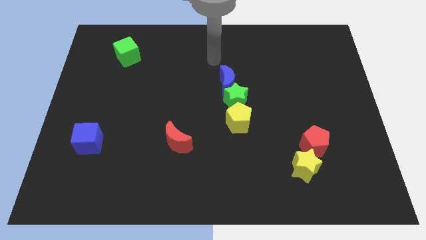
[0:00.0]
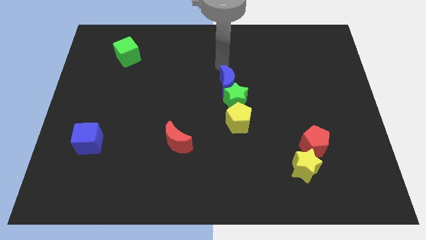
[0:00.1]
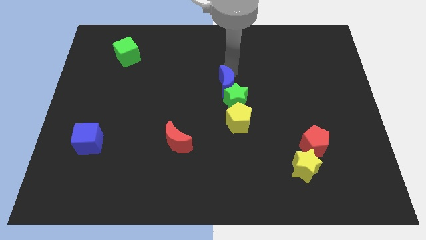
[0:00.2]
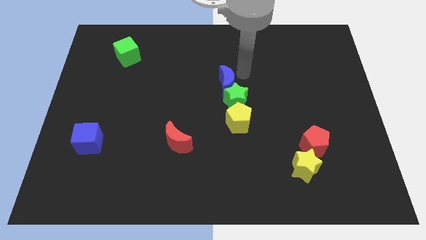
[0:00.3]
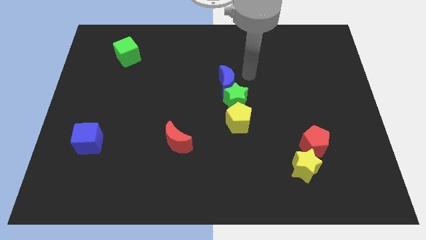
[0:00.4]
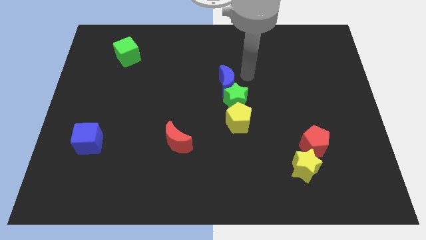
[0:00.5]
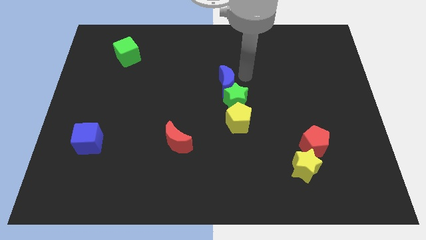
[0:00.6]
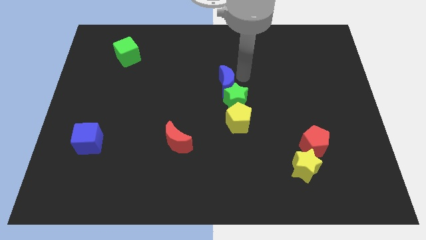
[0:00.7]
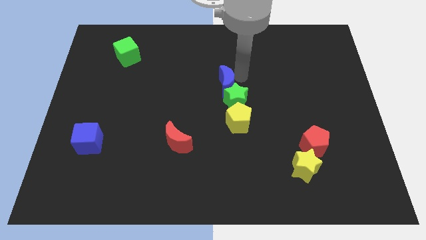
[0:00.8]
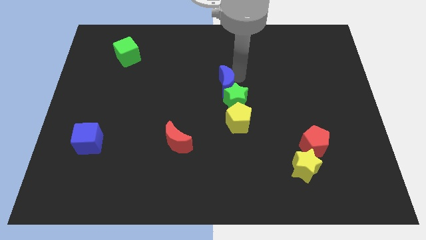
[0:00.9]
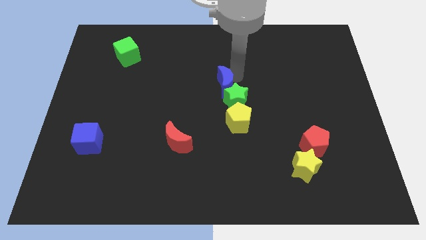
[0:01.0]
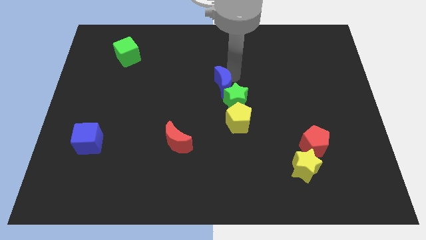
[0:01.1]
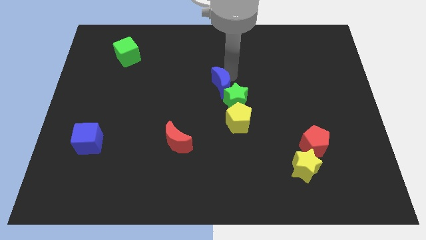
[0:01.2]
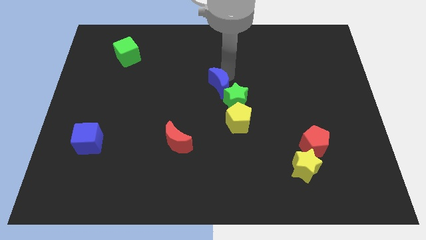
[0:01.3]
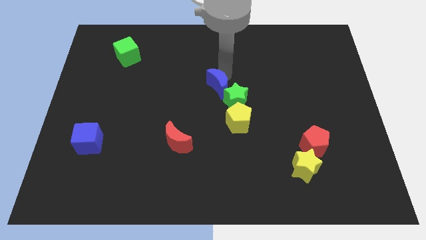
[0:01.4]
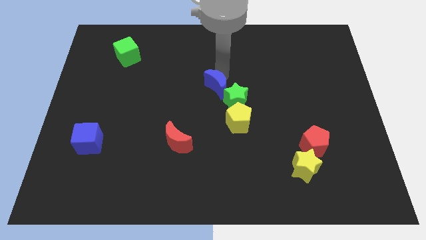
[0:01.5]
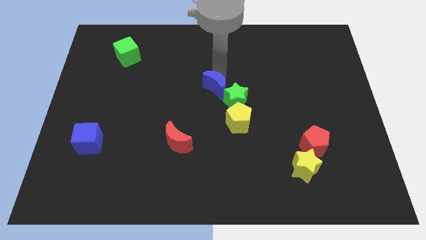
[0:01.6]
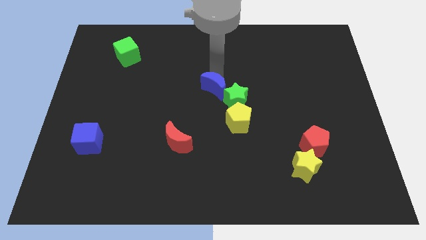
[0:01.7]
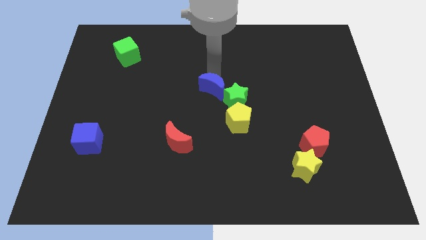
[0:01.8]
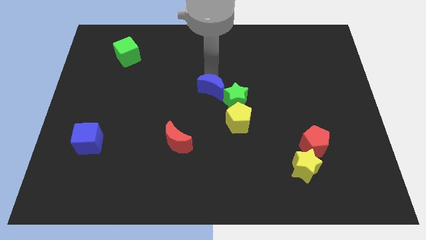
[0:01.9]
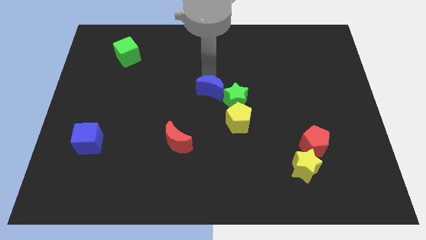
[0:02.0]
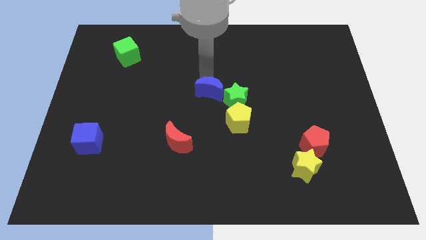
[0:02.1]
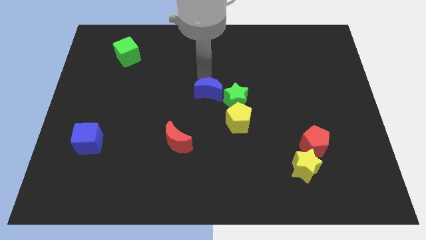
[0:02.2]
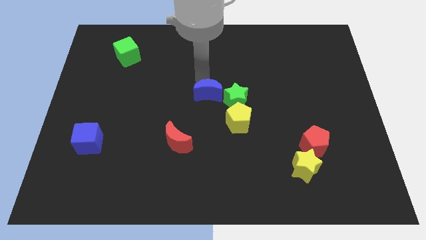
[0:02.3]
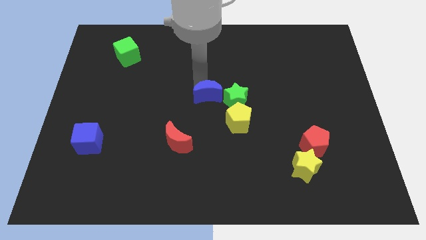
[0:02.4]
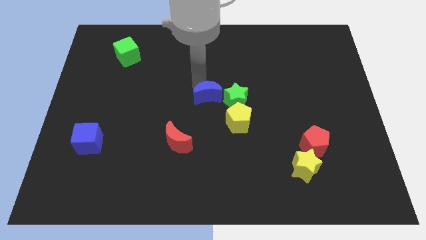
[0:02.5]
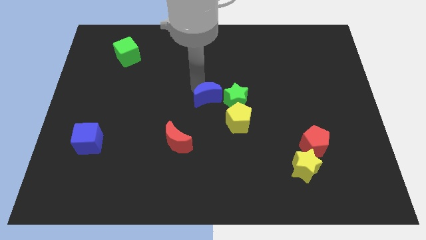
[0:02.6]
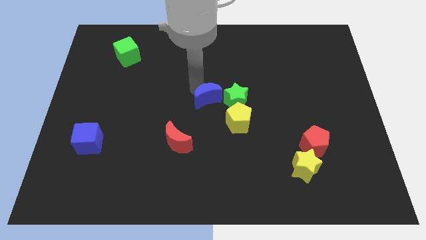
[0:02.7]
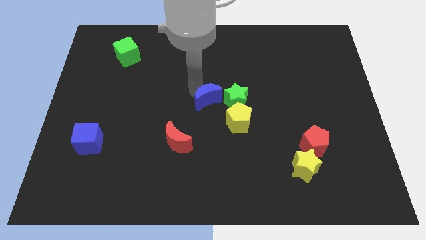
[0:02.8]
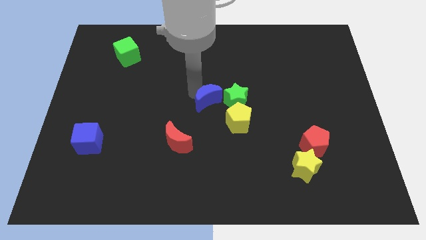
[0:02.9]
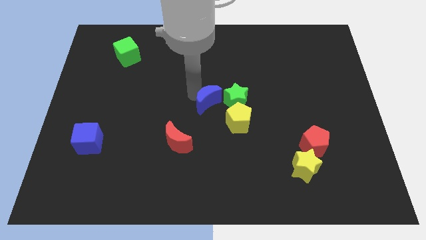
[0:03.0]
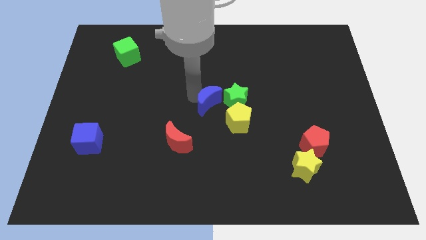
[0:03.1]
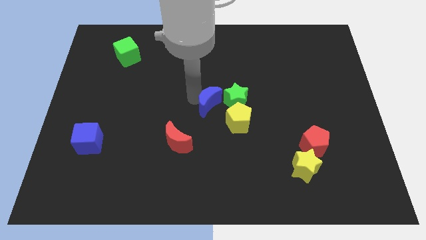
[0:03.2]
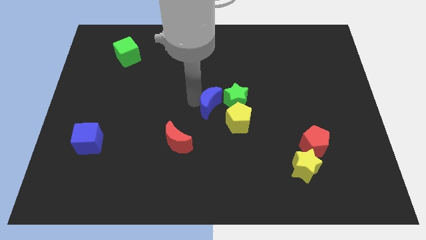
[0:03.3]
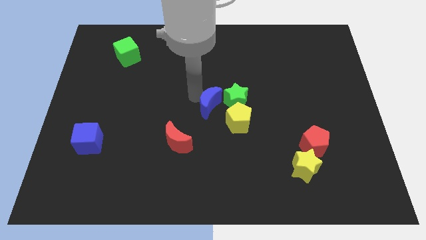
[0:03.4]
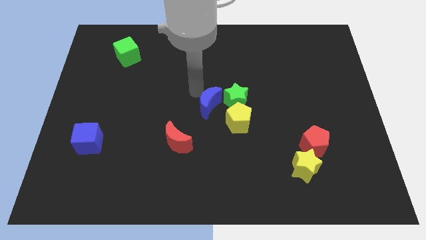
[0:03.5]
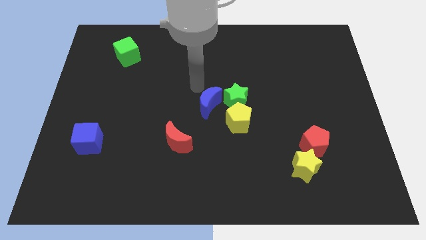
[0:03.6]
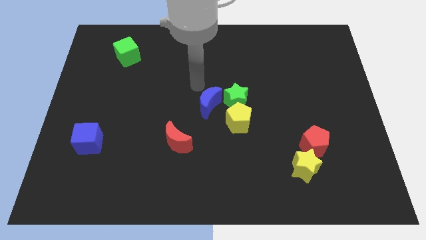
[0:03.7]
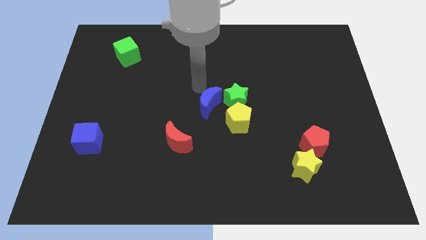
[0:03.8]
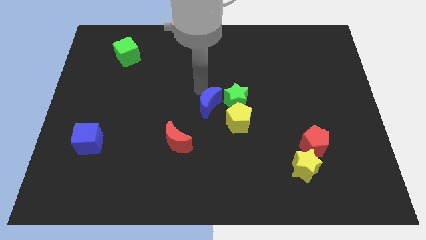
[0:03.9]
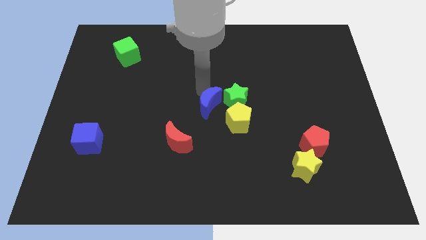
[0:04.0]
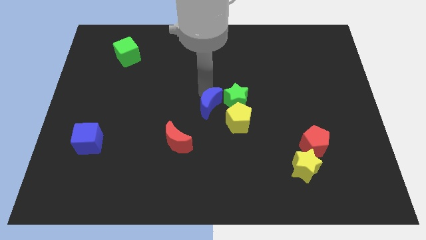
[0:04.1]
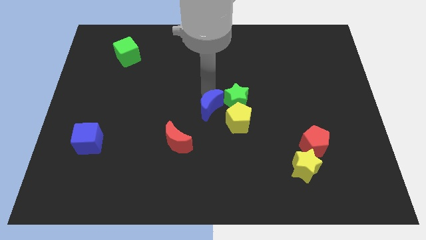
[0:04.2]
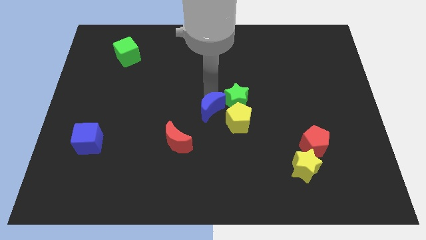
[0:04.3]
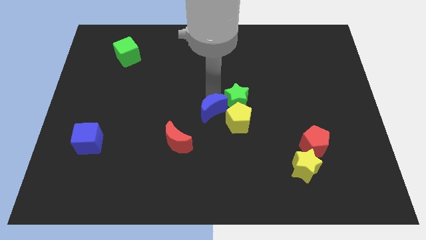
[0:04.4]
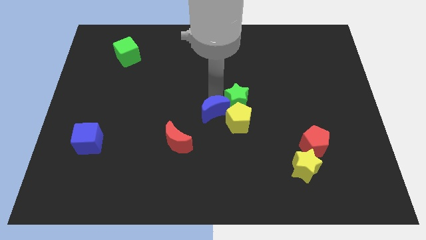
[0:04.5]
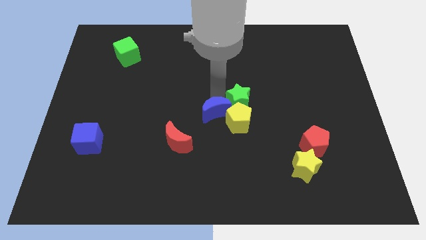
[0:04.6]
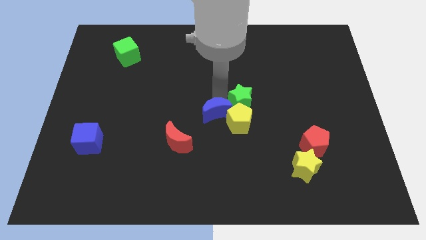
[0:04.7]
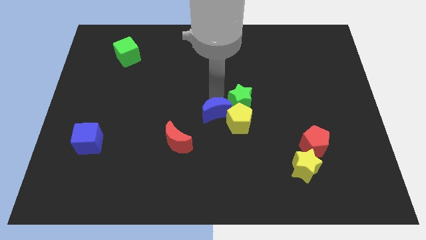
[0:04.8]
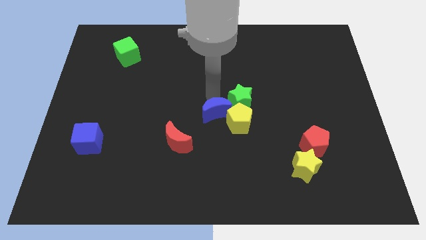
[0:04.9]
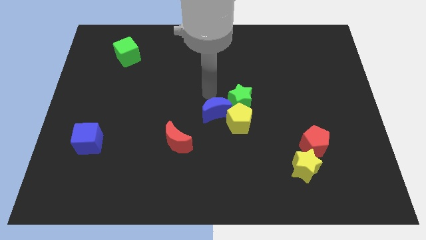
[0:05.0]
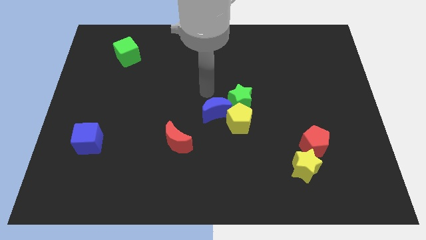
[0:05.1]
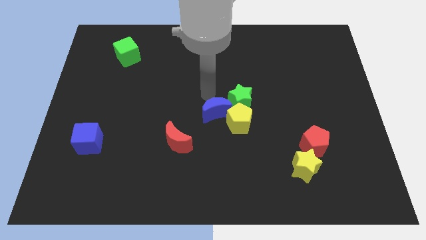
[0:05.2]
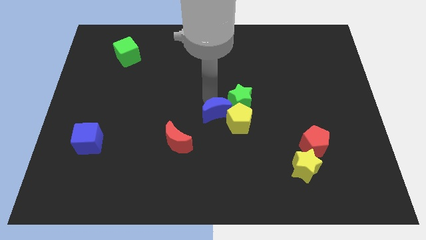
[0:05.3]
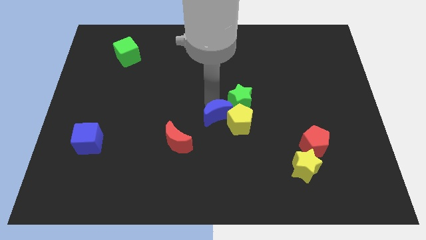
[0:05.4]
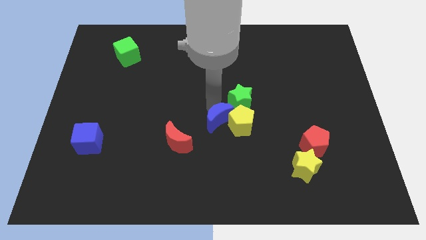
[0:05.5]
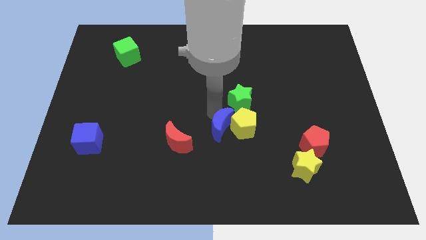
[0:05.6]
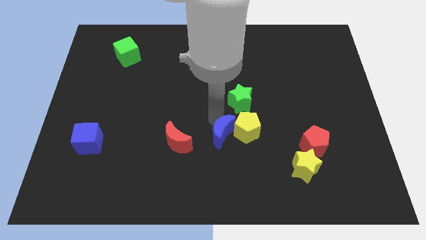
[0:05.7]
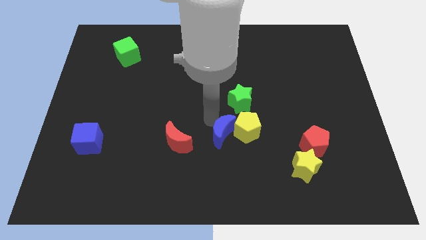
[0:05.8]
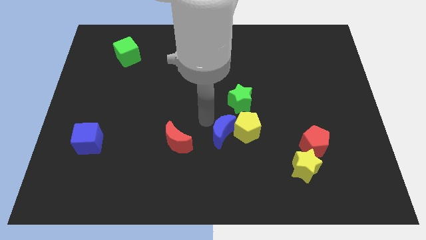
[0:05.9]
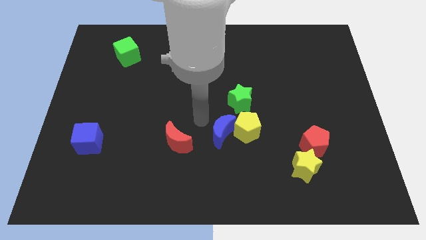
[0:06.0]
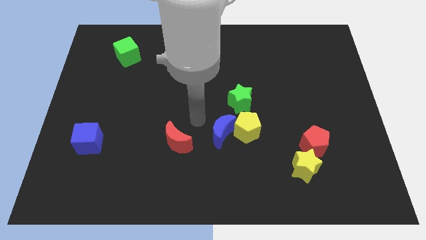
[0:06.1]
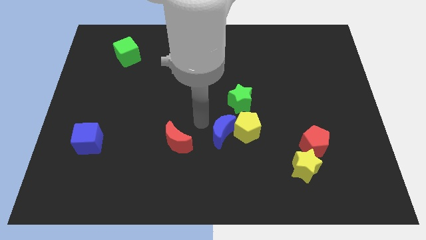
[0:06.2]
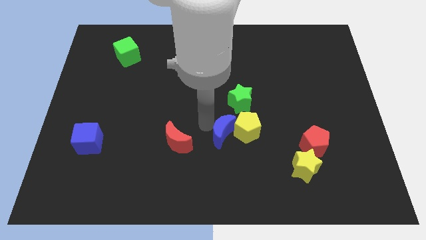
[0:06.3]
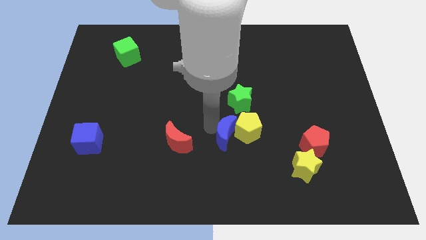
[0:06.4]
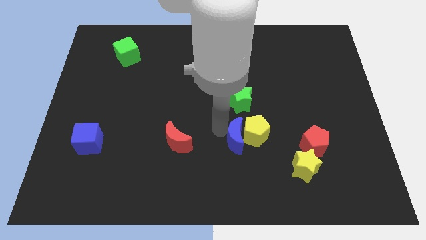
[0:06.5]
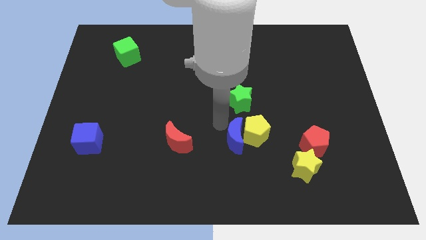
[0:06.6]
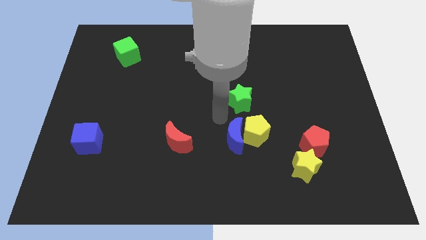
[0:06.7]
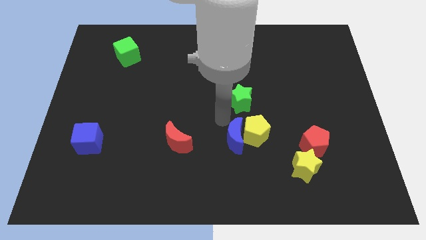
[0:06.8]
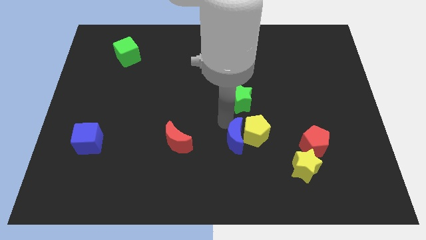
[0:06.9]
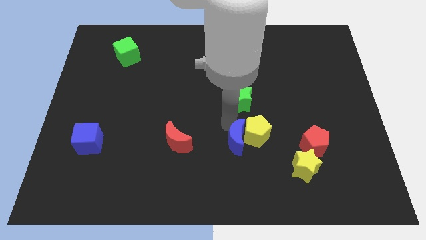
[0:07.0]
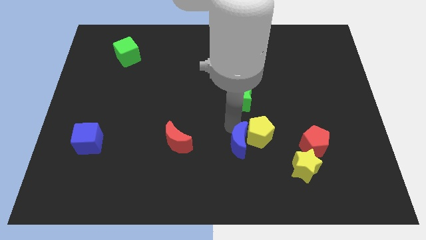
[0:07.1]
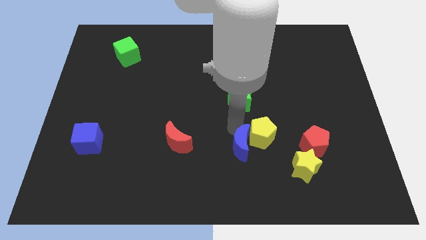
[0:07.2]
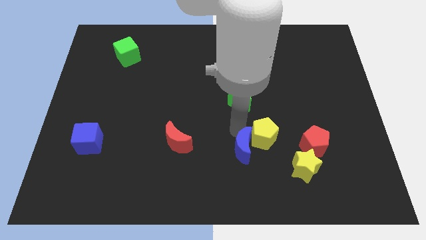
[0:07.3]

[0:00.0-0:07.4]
push the blue moon left of the yellow star
